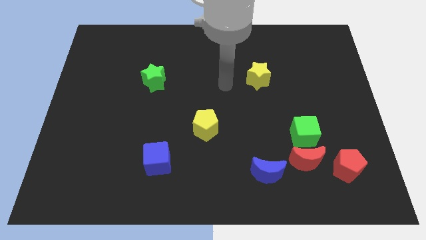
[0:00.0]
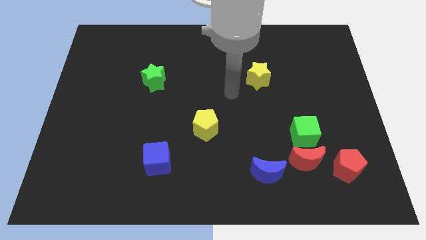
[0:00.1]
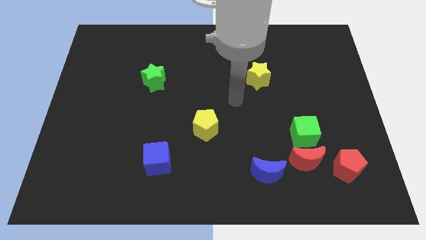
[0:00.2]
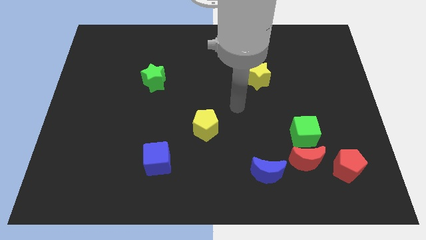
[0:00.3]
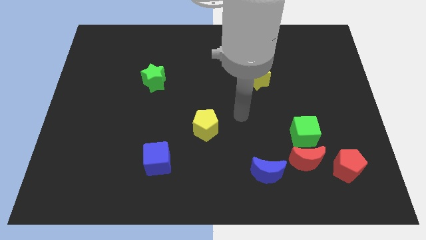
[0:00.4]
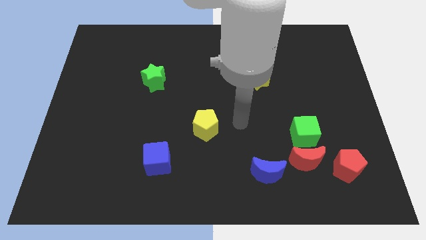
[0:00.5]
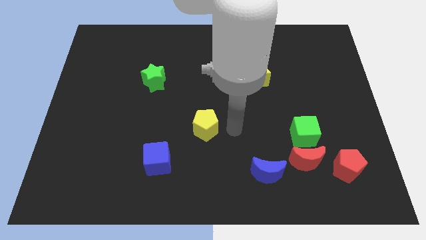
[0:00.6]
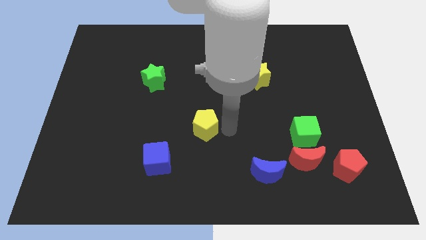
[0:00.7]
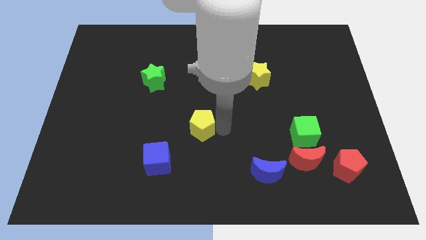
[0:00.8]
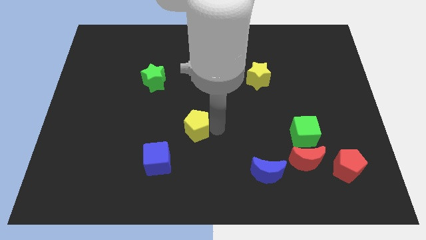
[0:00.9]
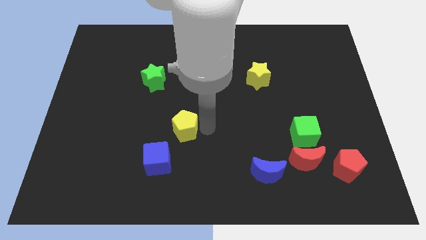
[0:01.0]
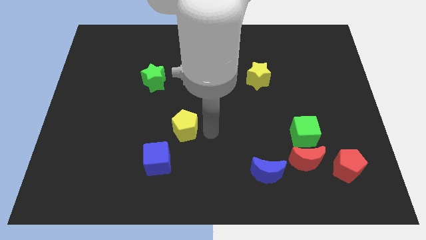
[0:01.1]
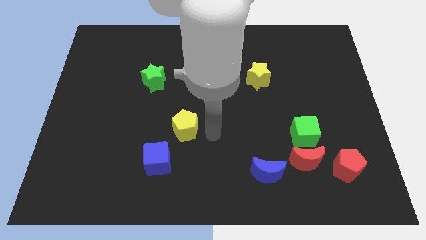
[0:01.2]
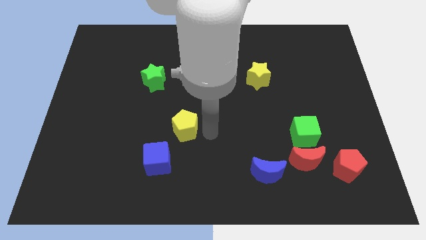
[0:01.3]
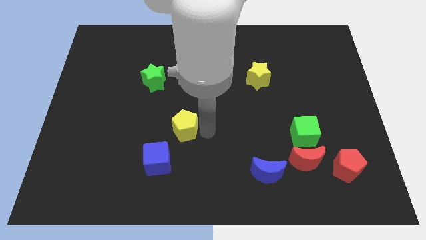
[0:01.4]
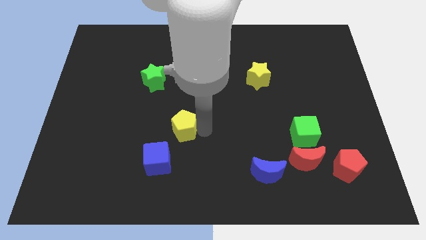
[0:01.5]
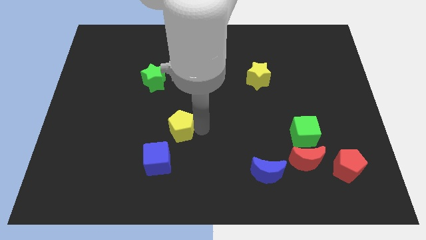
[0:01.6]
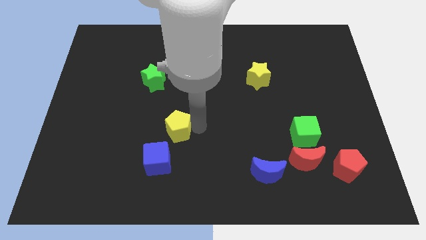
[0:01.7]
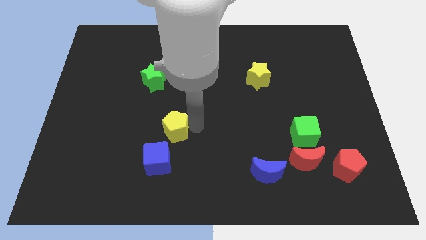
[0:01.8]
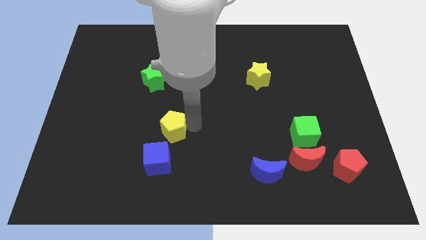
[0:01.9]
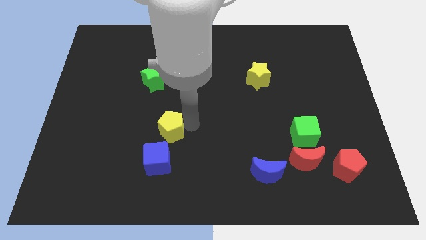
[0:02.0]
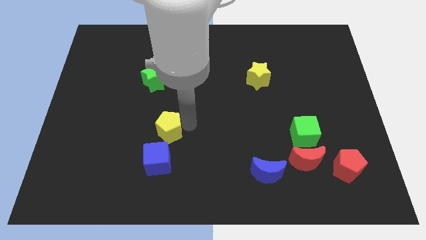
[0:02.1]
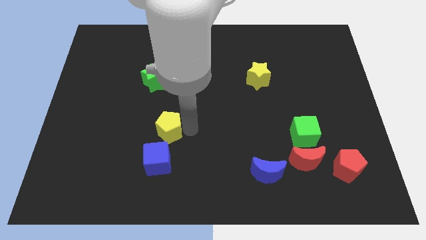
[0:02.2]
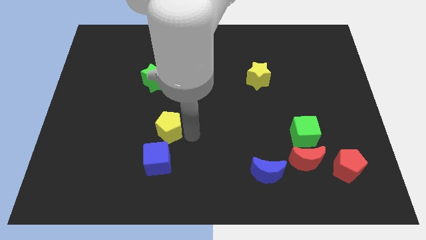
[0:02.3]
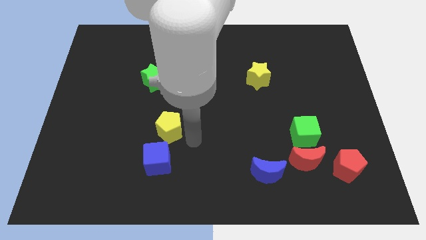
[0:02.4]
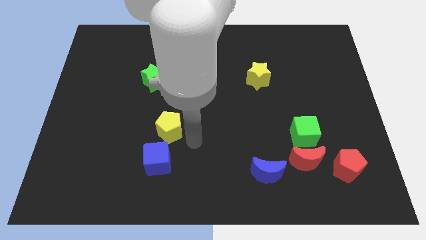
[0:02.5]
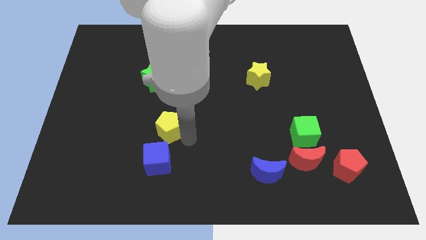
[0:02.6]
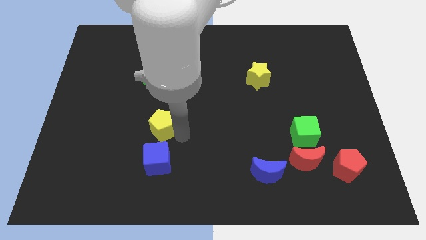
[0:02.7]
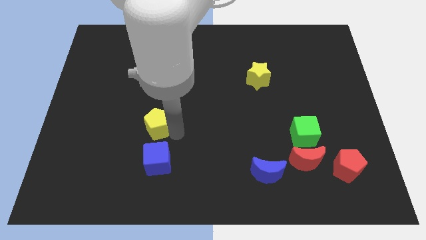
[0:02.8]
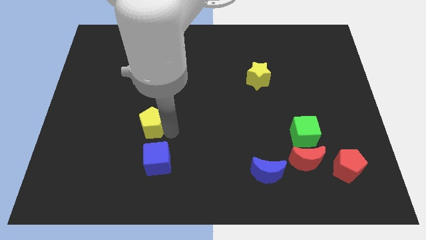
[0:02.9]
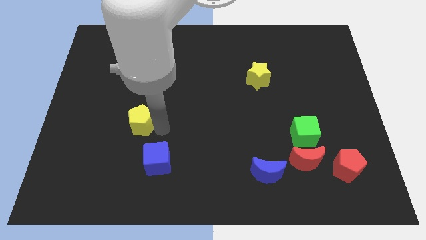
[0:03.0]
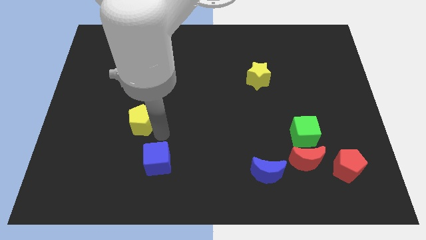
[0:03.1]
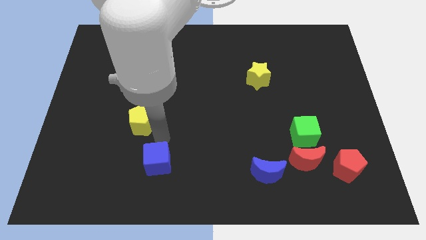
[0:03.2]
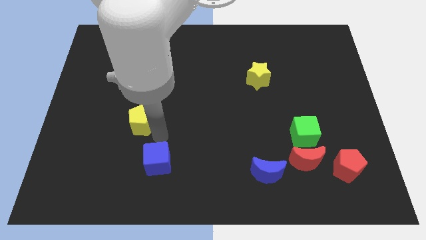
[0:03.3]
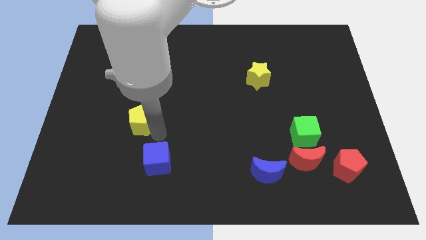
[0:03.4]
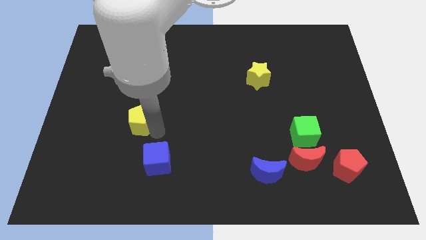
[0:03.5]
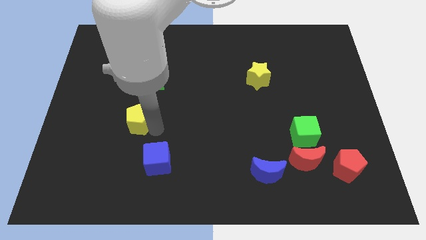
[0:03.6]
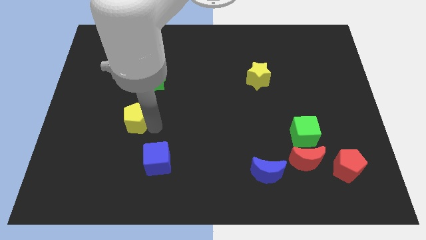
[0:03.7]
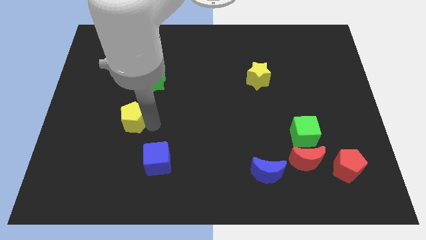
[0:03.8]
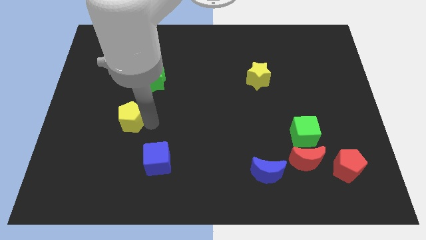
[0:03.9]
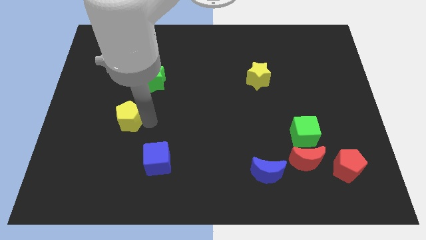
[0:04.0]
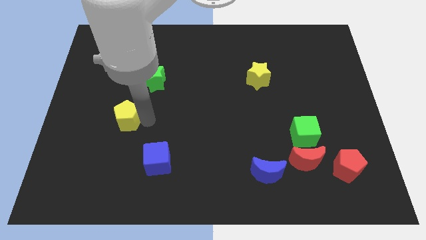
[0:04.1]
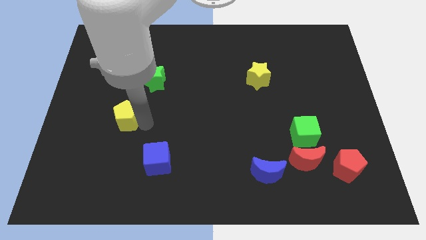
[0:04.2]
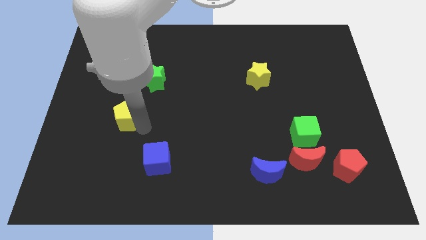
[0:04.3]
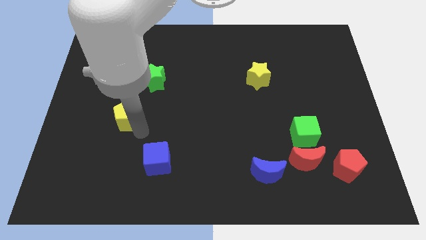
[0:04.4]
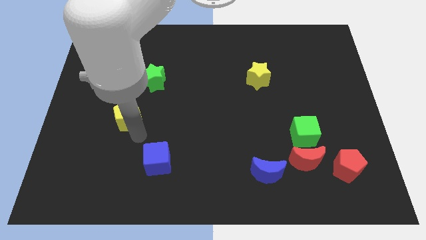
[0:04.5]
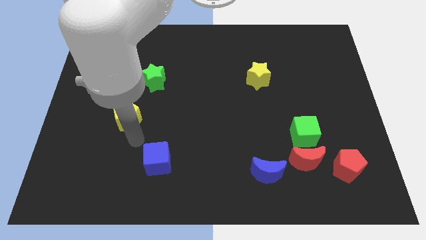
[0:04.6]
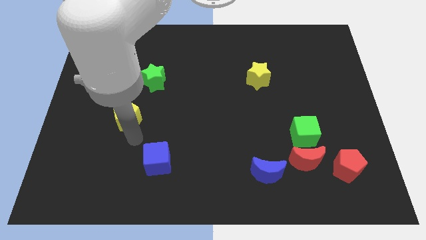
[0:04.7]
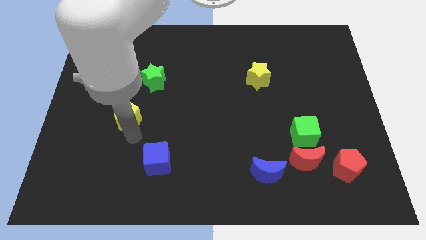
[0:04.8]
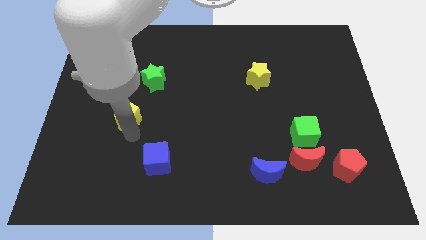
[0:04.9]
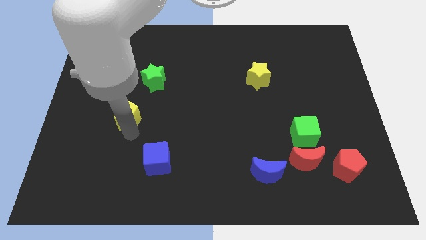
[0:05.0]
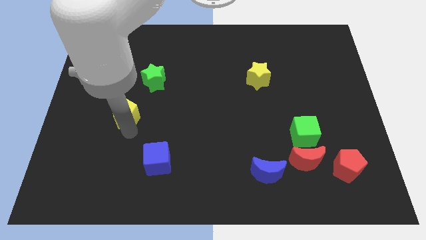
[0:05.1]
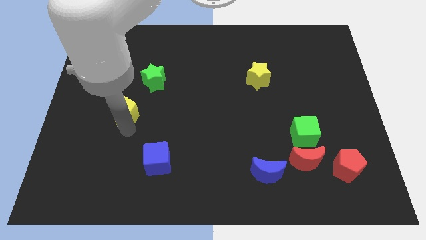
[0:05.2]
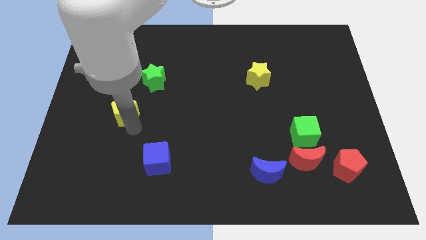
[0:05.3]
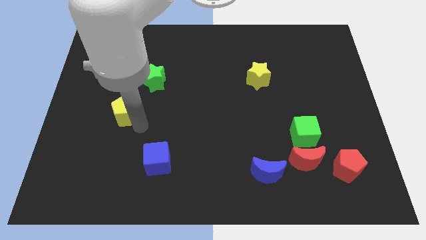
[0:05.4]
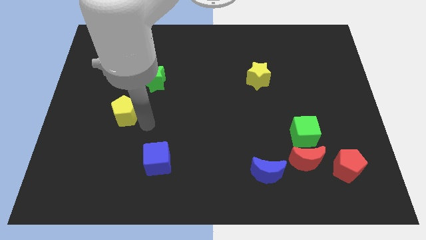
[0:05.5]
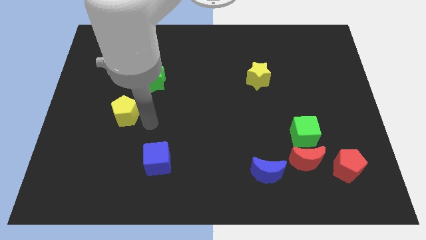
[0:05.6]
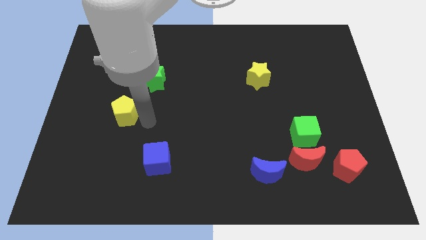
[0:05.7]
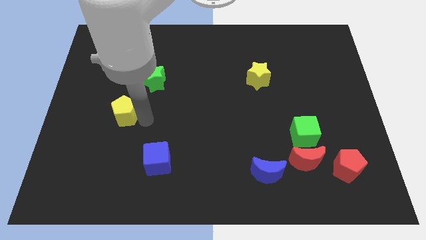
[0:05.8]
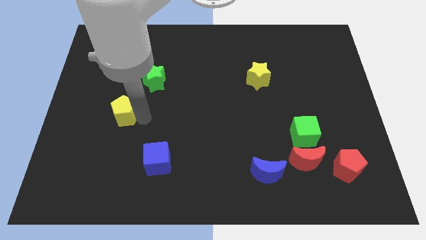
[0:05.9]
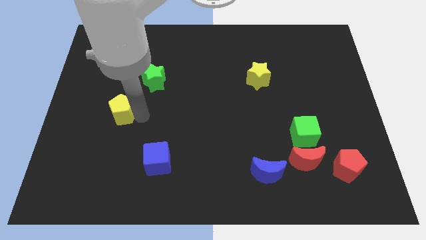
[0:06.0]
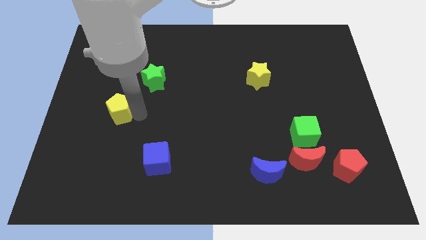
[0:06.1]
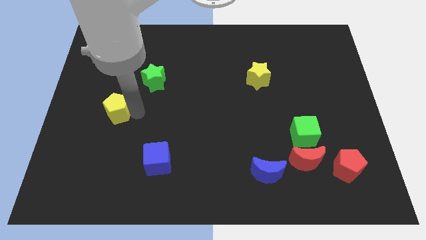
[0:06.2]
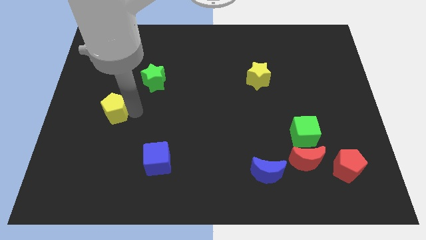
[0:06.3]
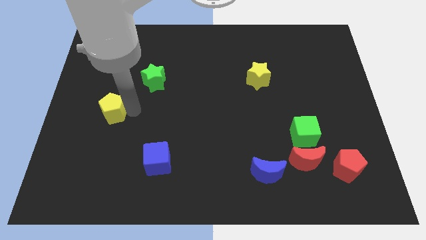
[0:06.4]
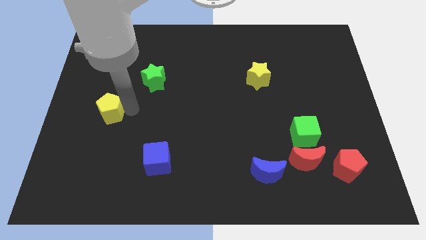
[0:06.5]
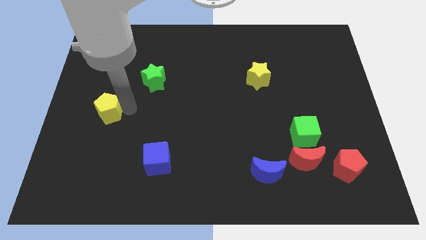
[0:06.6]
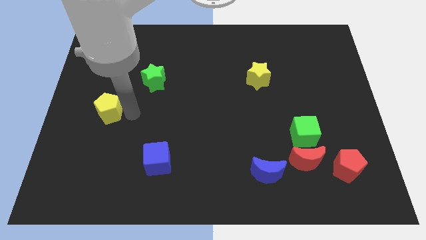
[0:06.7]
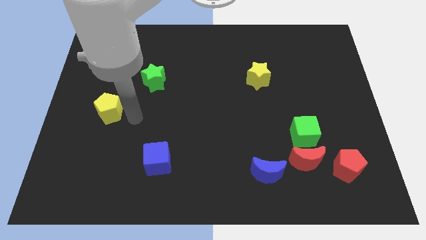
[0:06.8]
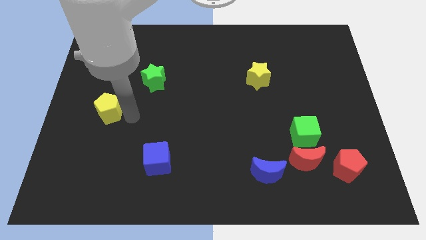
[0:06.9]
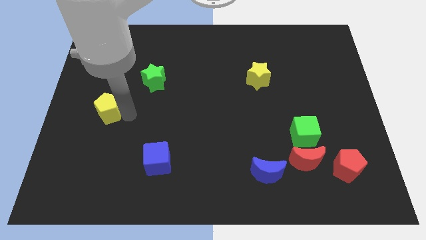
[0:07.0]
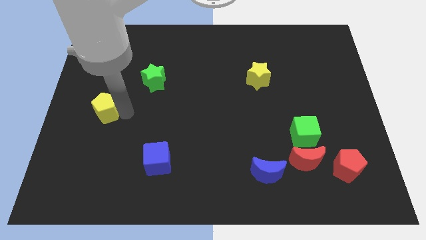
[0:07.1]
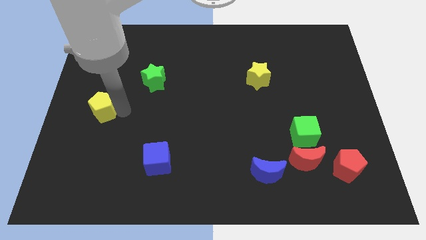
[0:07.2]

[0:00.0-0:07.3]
slide the yellow pentagon to the center left

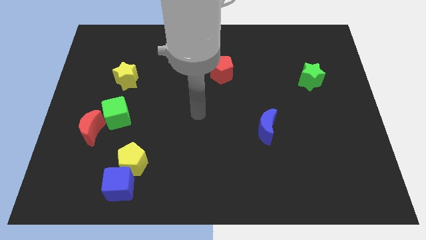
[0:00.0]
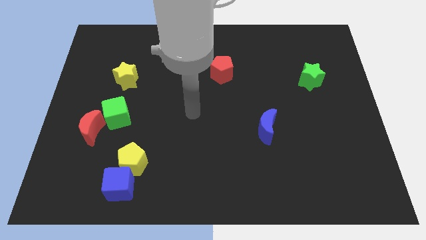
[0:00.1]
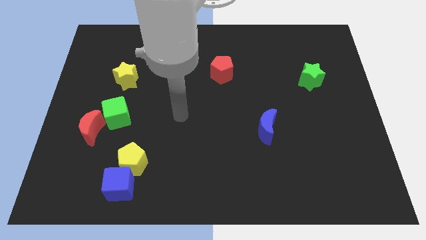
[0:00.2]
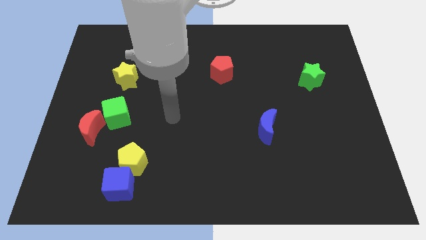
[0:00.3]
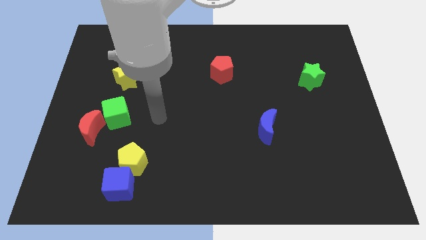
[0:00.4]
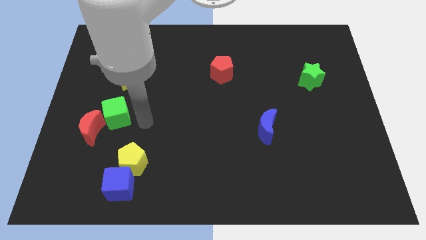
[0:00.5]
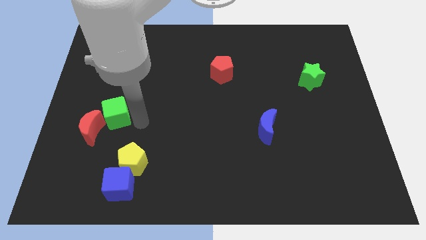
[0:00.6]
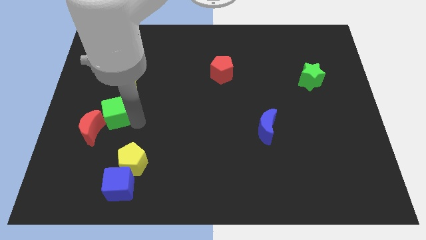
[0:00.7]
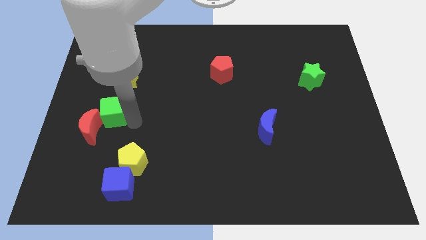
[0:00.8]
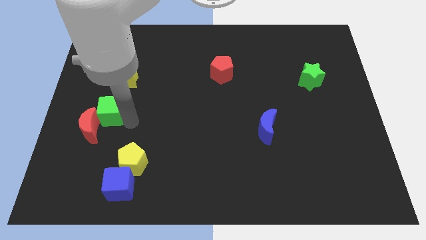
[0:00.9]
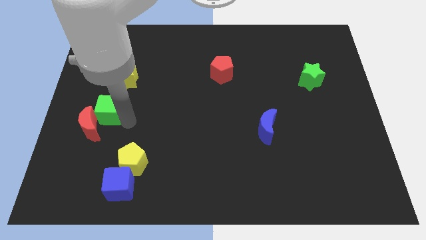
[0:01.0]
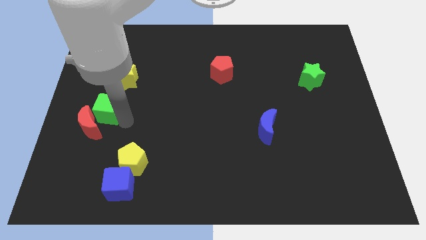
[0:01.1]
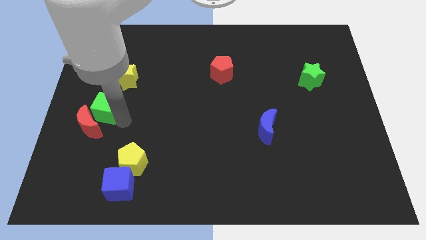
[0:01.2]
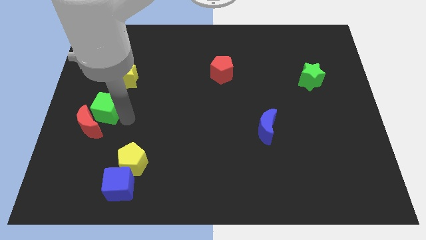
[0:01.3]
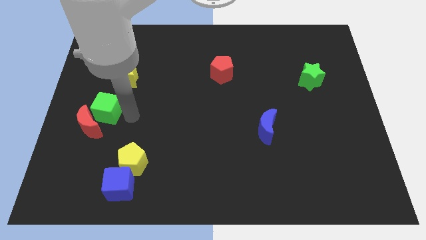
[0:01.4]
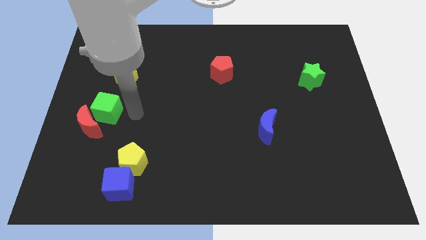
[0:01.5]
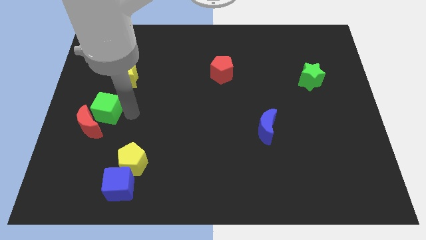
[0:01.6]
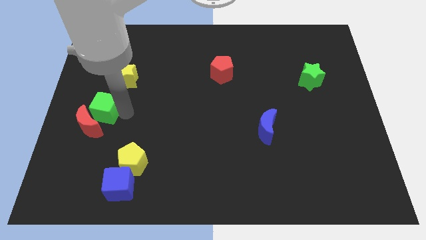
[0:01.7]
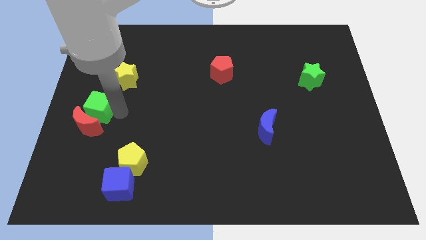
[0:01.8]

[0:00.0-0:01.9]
push the green cube to the left side of the board
